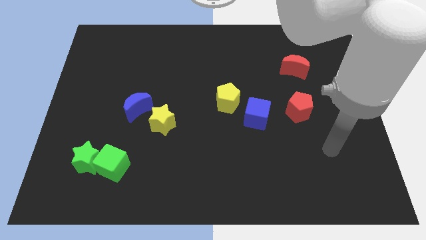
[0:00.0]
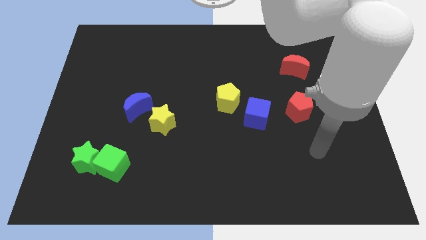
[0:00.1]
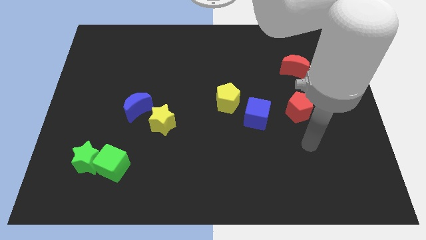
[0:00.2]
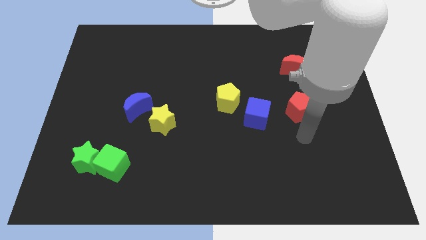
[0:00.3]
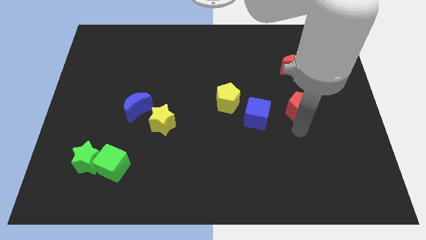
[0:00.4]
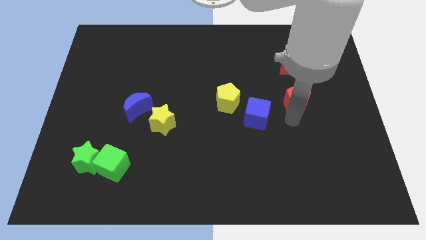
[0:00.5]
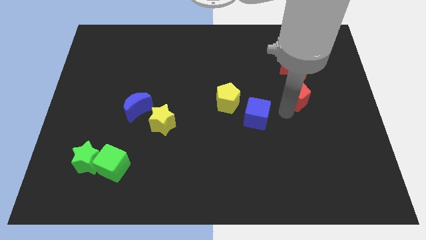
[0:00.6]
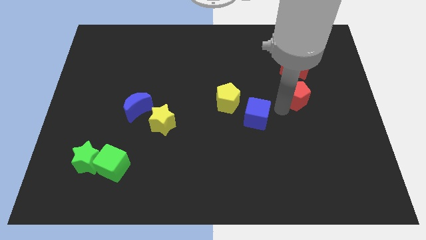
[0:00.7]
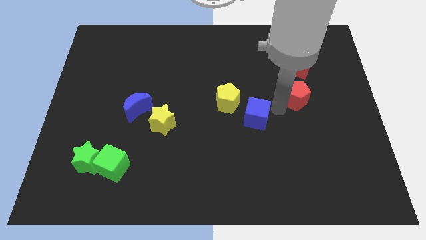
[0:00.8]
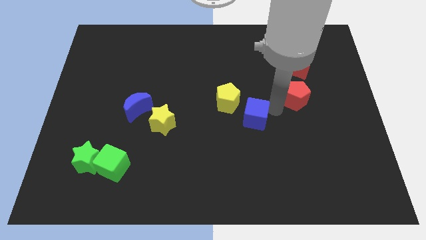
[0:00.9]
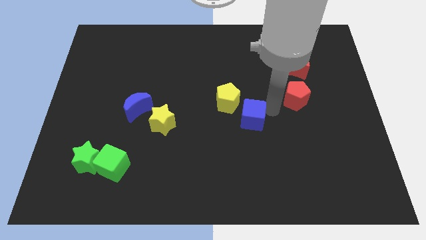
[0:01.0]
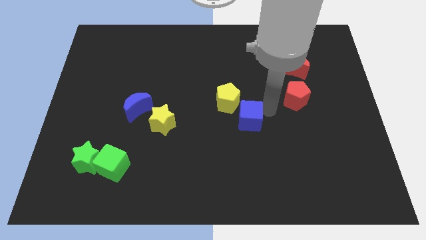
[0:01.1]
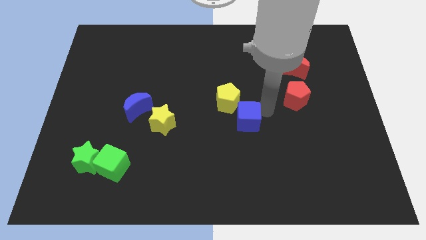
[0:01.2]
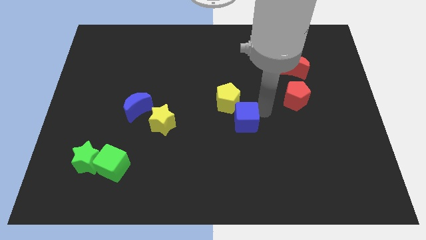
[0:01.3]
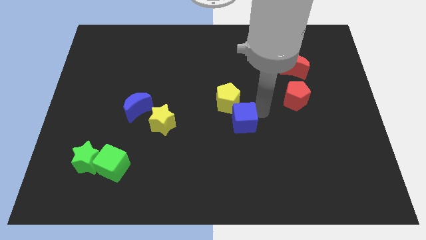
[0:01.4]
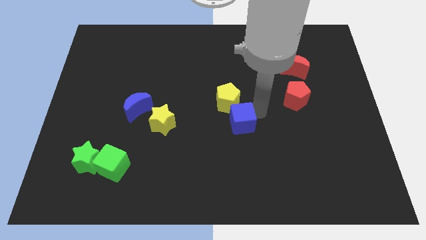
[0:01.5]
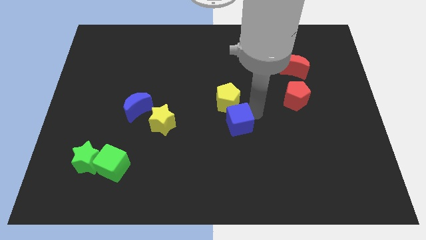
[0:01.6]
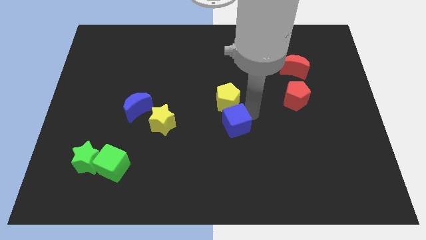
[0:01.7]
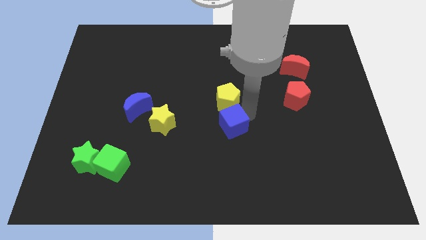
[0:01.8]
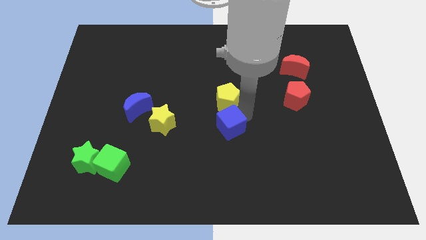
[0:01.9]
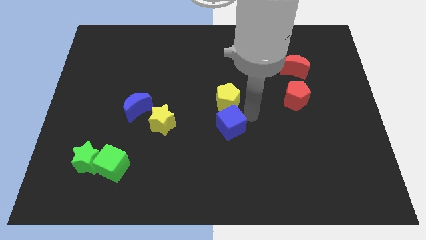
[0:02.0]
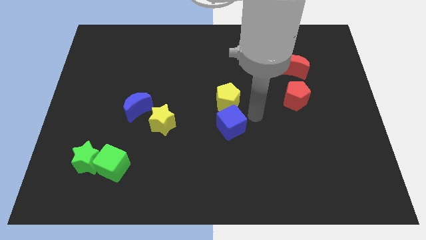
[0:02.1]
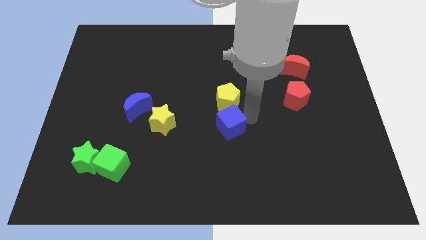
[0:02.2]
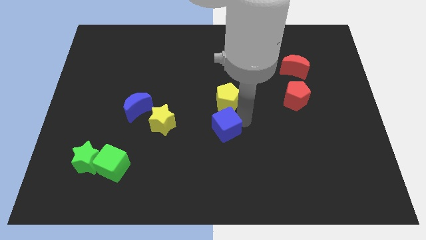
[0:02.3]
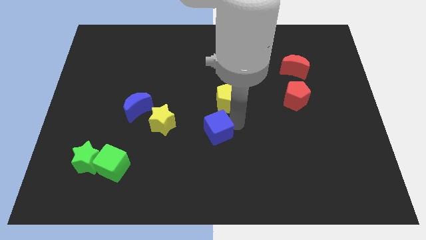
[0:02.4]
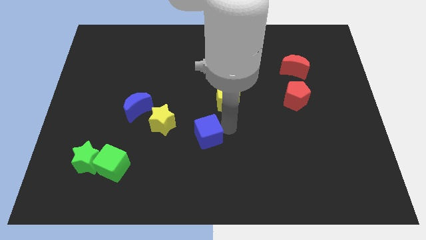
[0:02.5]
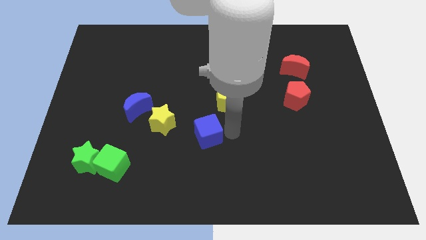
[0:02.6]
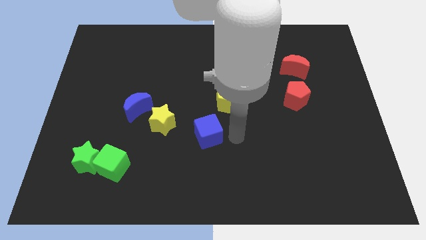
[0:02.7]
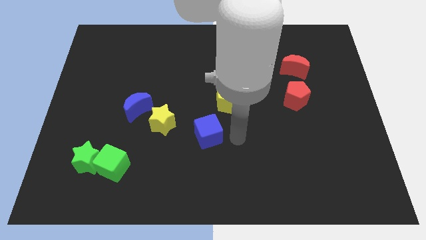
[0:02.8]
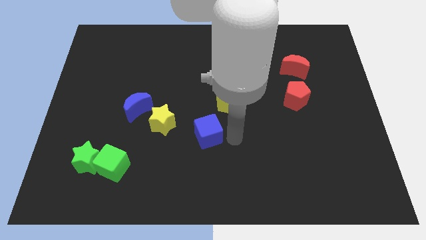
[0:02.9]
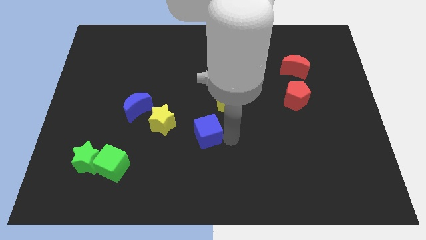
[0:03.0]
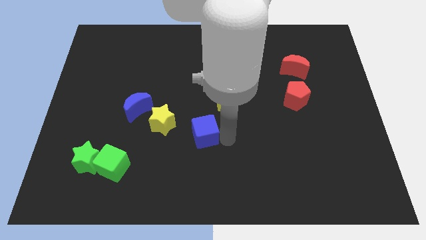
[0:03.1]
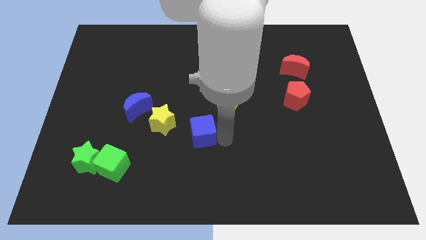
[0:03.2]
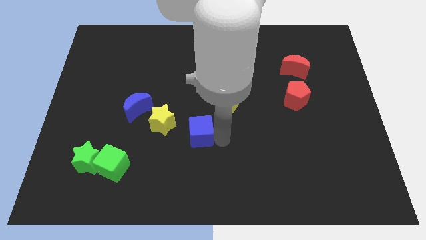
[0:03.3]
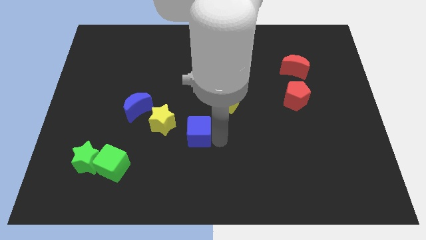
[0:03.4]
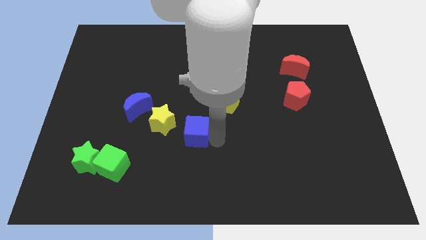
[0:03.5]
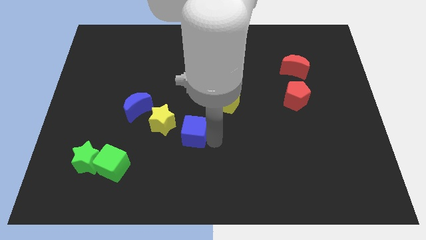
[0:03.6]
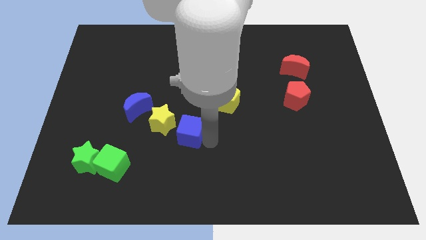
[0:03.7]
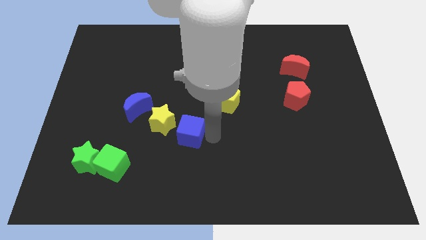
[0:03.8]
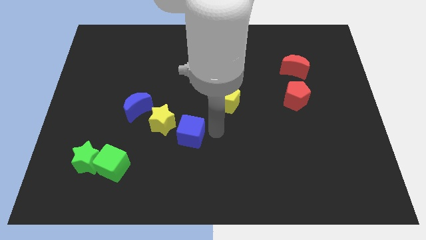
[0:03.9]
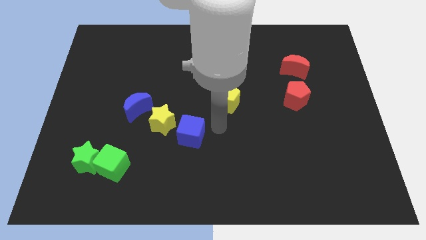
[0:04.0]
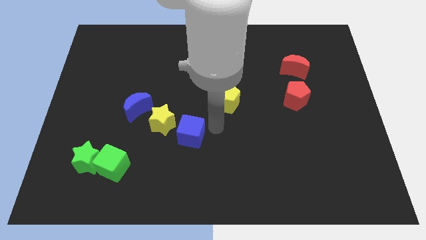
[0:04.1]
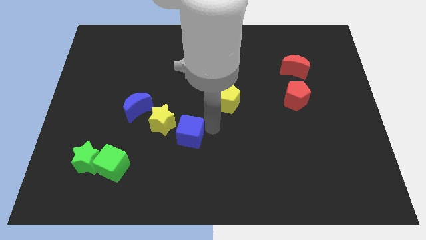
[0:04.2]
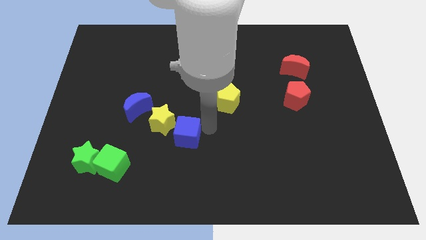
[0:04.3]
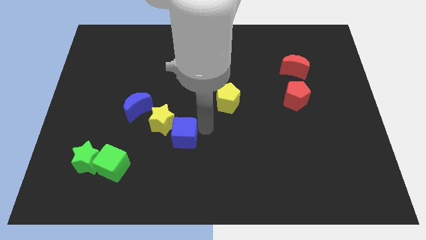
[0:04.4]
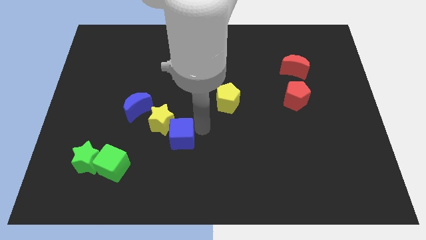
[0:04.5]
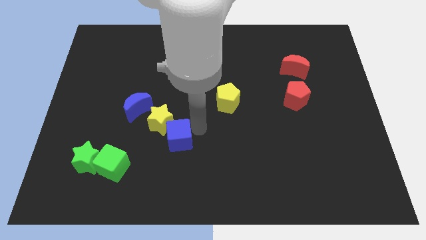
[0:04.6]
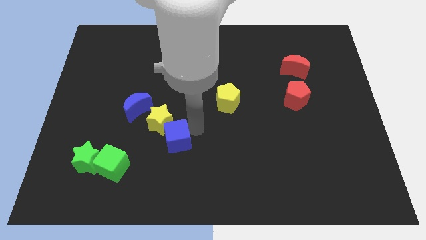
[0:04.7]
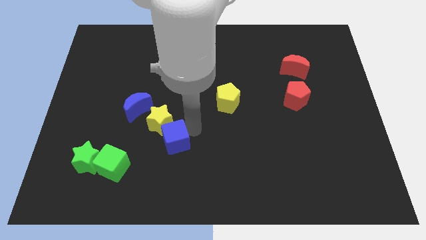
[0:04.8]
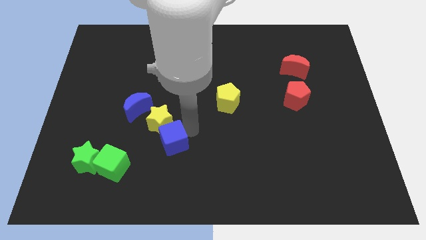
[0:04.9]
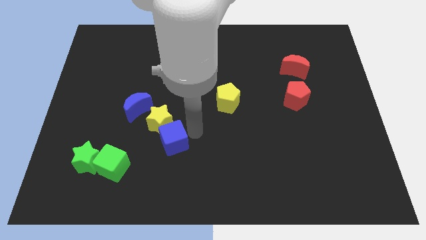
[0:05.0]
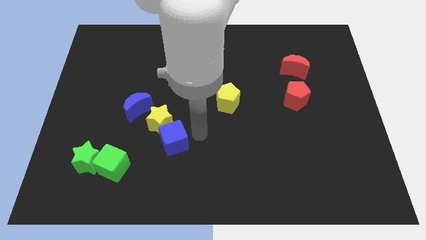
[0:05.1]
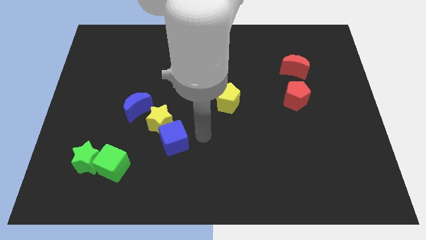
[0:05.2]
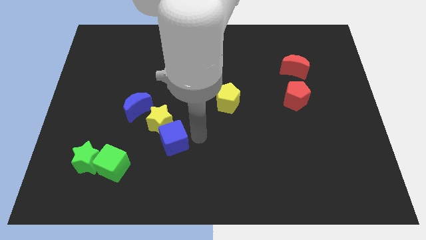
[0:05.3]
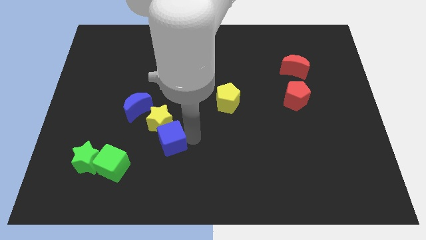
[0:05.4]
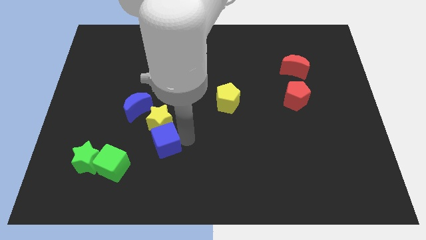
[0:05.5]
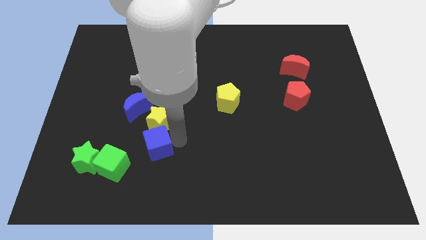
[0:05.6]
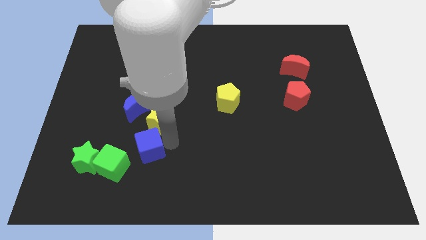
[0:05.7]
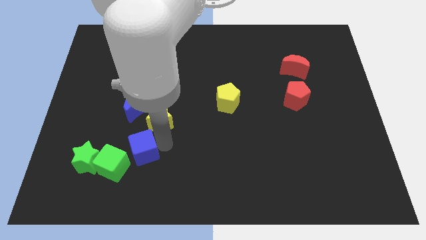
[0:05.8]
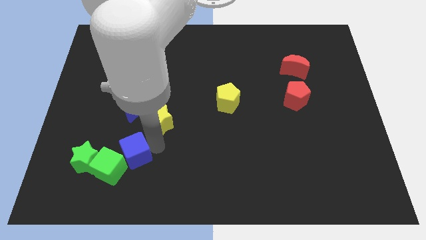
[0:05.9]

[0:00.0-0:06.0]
put the blue cube towards the green cube

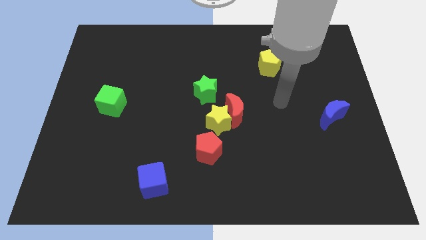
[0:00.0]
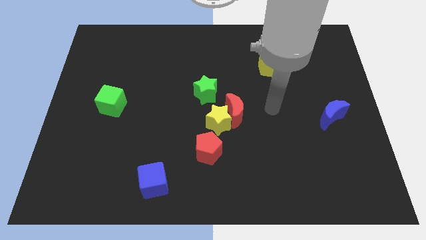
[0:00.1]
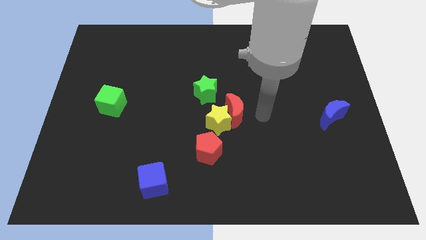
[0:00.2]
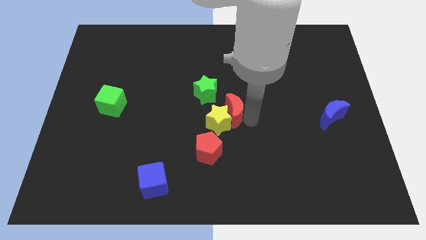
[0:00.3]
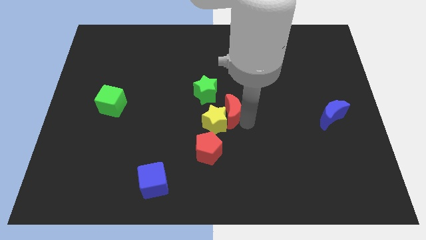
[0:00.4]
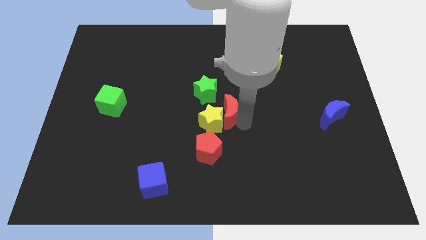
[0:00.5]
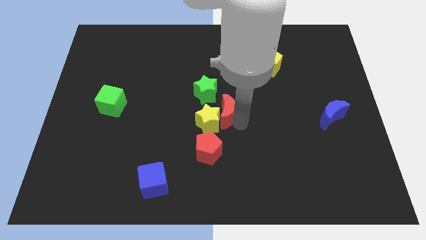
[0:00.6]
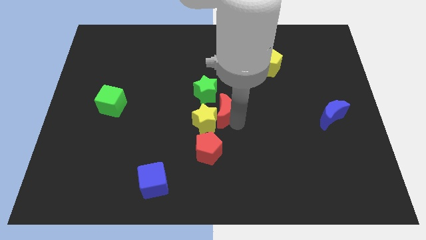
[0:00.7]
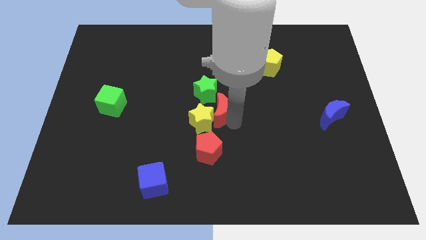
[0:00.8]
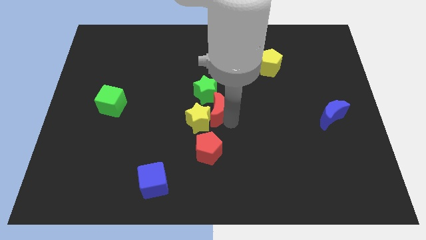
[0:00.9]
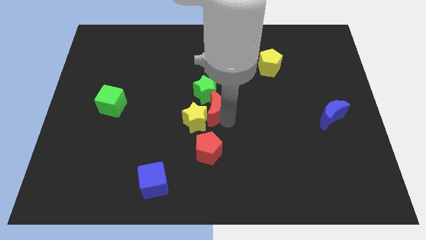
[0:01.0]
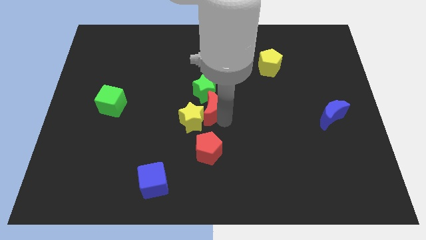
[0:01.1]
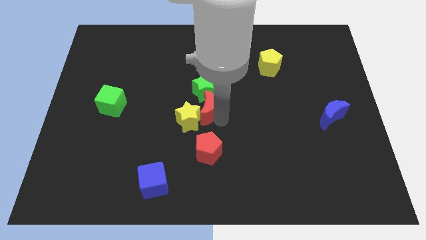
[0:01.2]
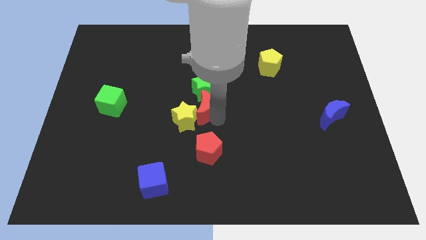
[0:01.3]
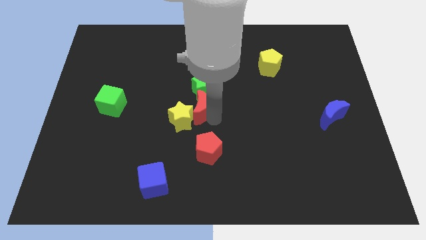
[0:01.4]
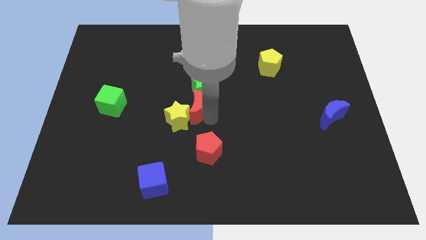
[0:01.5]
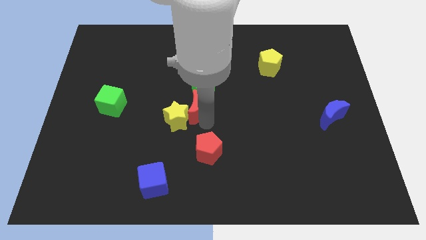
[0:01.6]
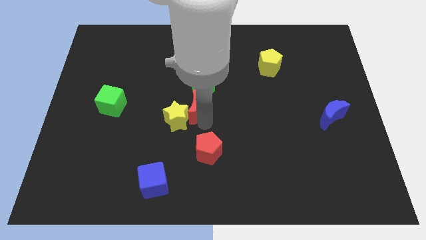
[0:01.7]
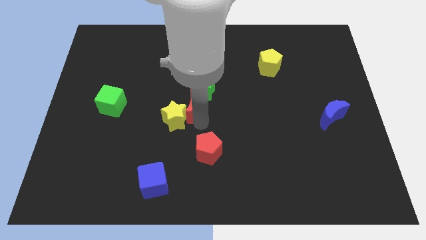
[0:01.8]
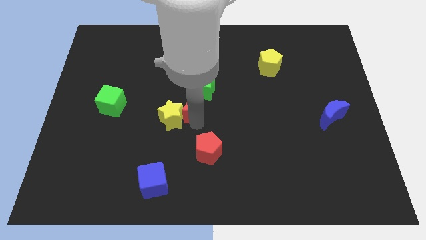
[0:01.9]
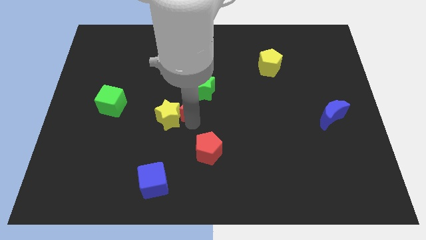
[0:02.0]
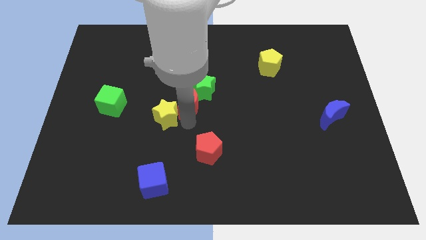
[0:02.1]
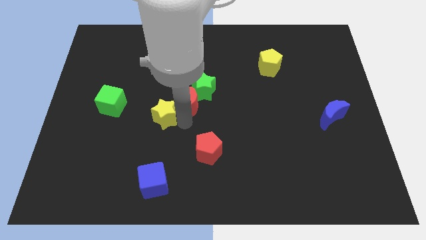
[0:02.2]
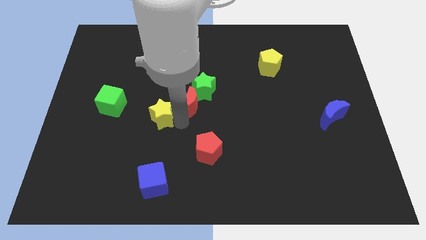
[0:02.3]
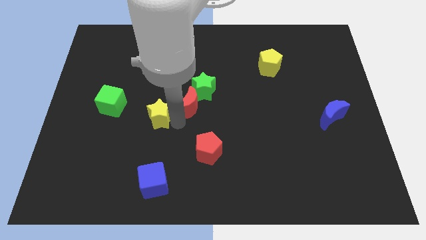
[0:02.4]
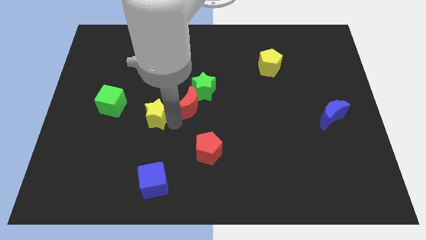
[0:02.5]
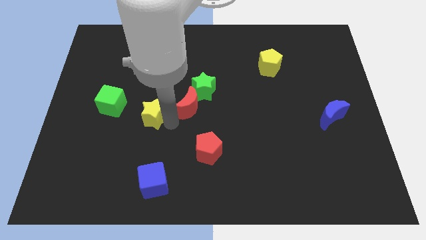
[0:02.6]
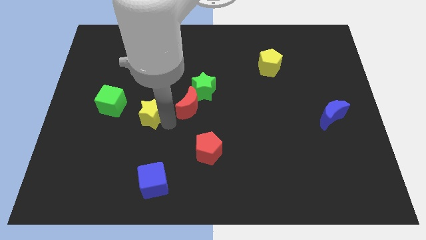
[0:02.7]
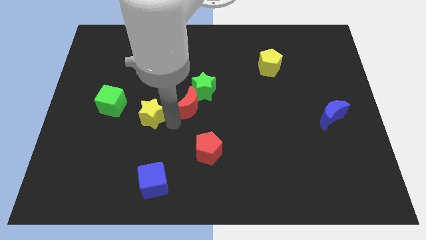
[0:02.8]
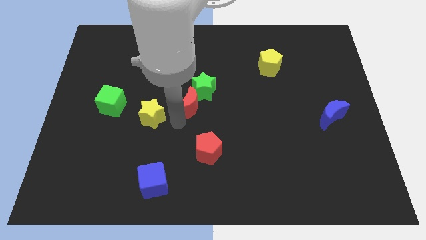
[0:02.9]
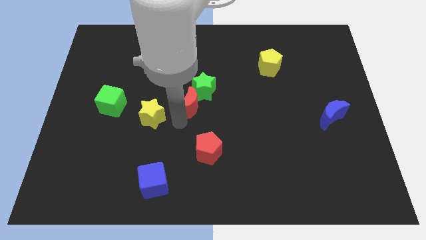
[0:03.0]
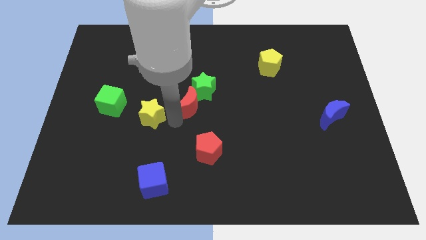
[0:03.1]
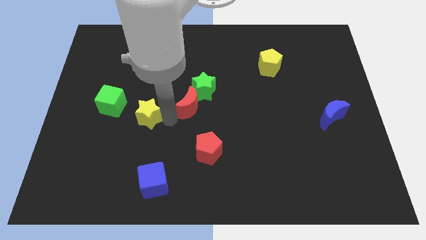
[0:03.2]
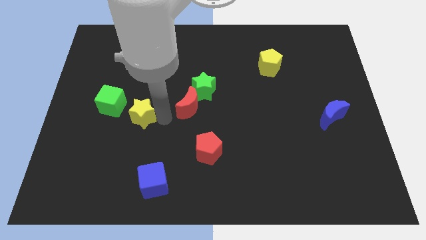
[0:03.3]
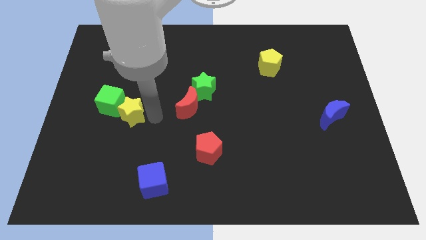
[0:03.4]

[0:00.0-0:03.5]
put the yellow star to the green cube
